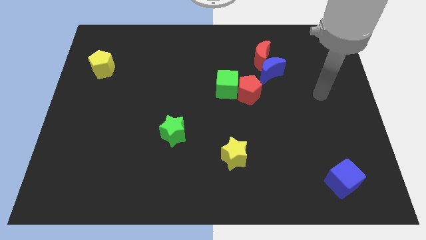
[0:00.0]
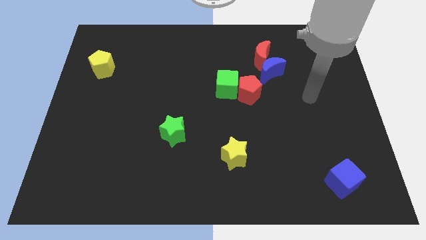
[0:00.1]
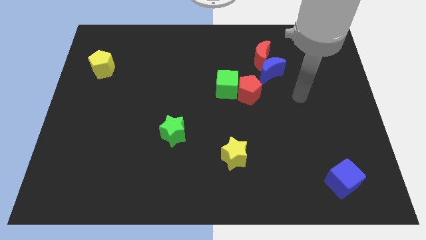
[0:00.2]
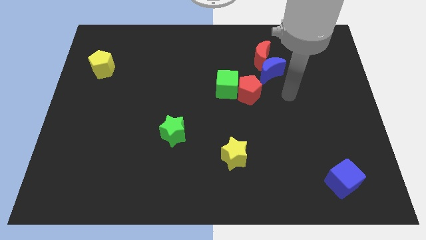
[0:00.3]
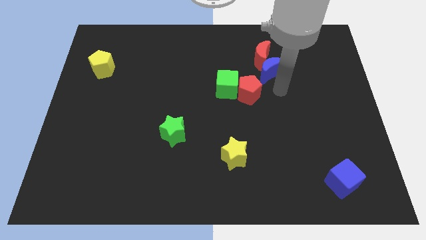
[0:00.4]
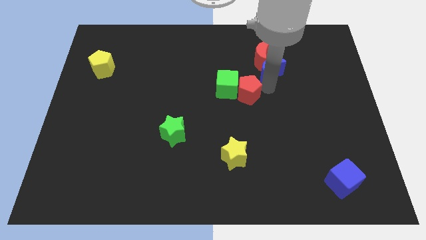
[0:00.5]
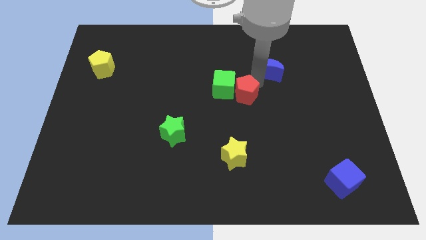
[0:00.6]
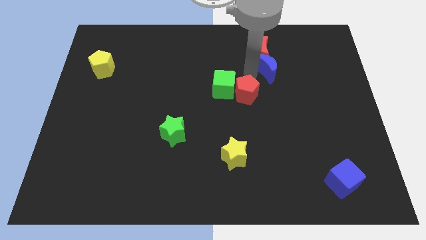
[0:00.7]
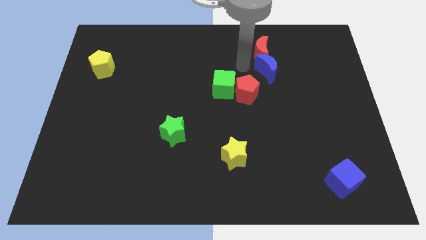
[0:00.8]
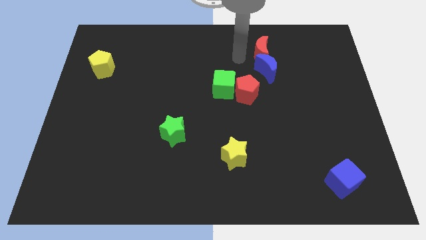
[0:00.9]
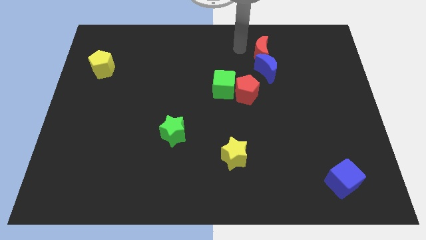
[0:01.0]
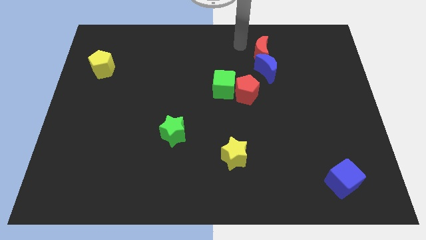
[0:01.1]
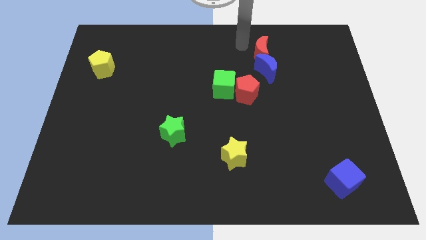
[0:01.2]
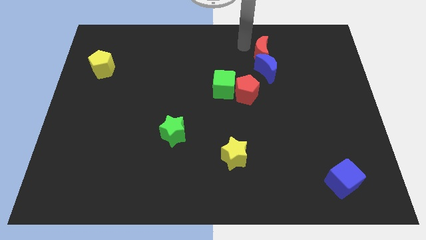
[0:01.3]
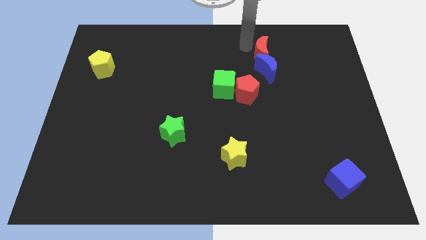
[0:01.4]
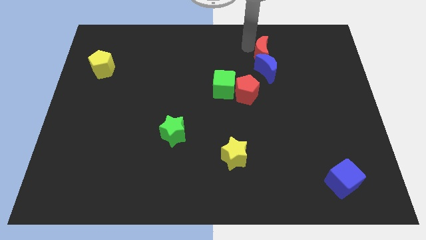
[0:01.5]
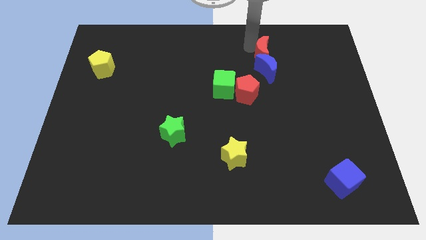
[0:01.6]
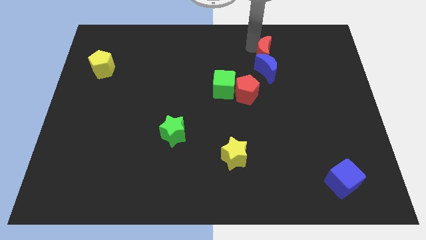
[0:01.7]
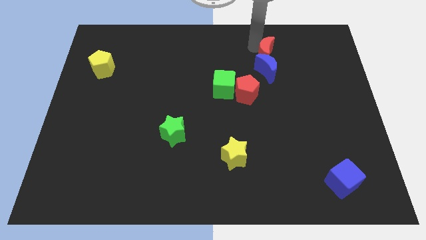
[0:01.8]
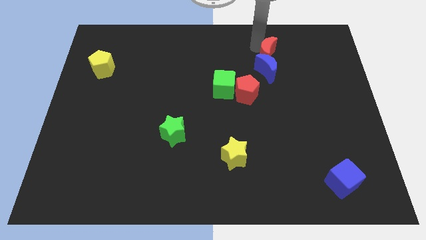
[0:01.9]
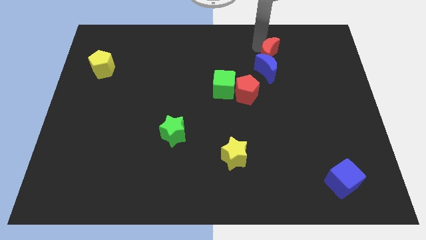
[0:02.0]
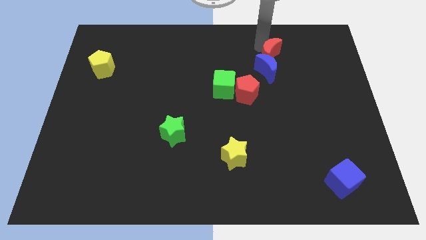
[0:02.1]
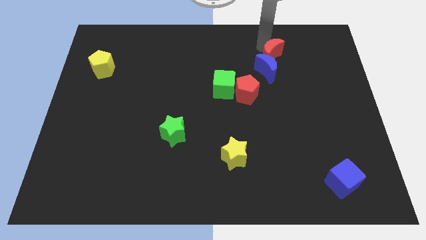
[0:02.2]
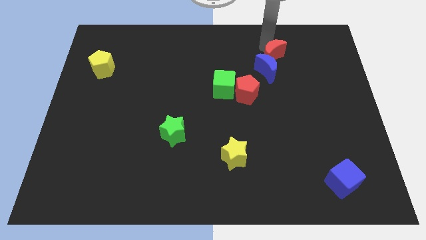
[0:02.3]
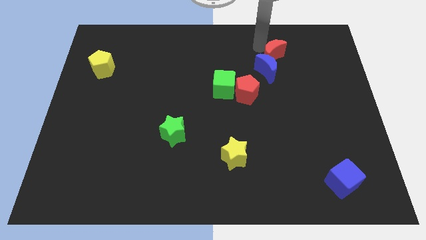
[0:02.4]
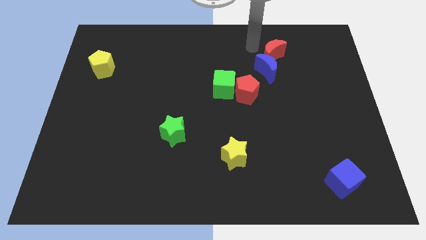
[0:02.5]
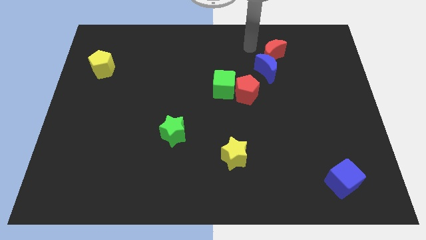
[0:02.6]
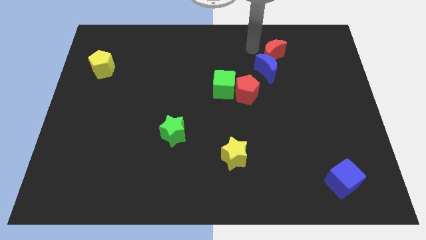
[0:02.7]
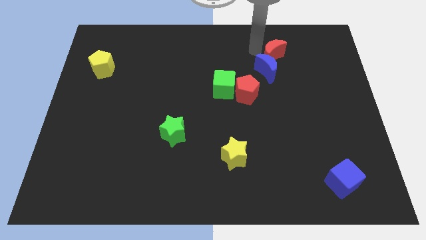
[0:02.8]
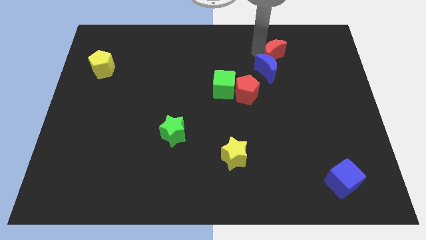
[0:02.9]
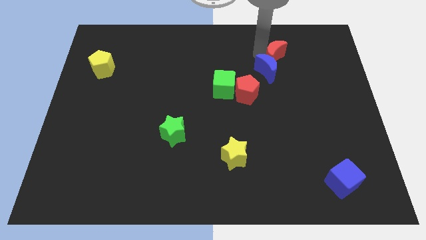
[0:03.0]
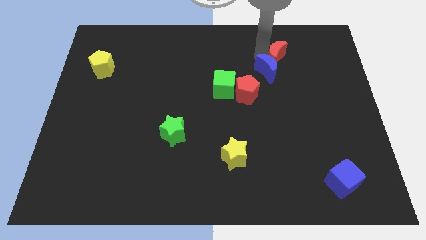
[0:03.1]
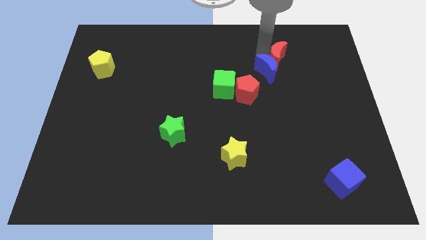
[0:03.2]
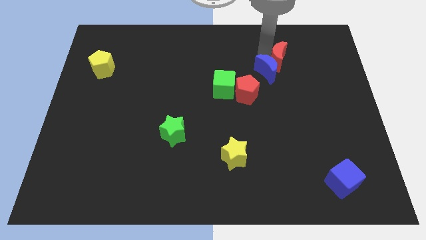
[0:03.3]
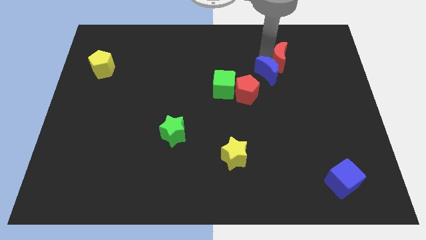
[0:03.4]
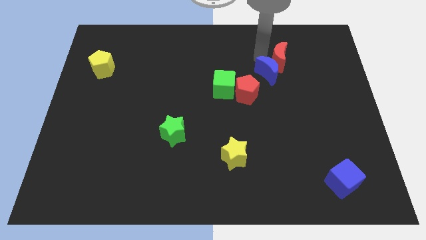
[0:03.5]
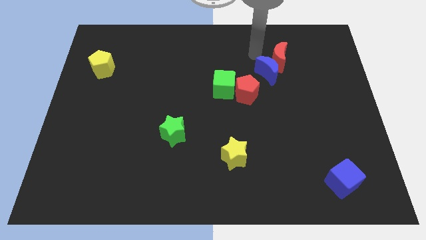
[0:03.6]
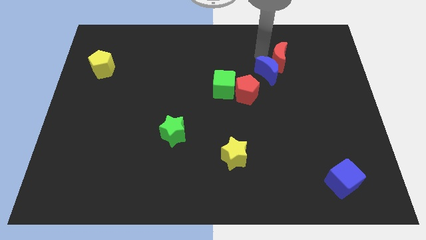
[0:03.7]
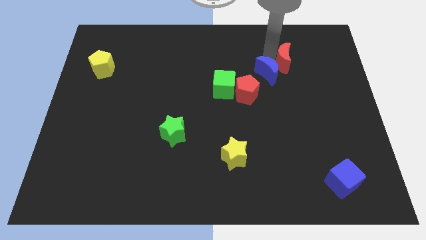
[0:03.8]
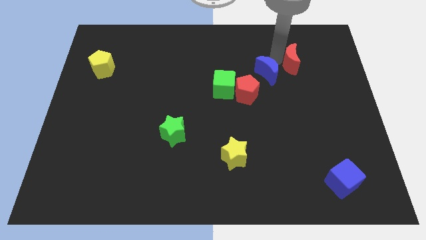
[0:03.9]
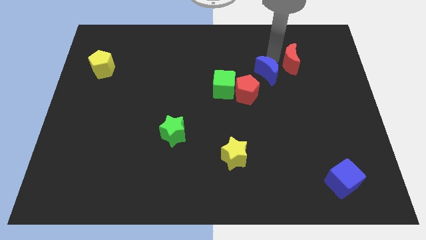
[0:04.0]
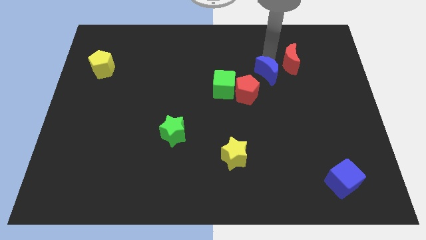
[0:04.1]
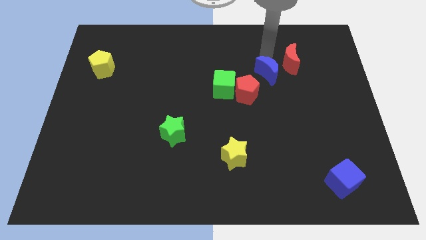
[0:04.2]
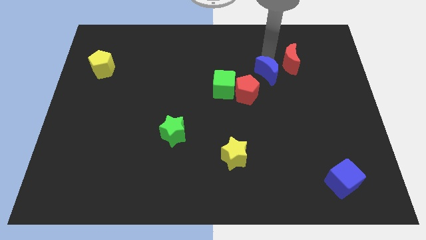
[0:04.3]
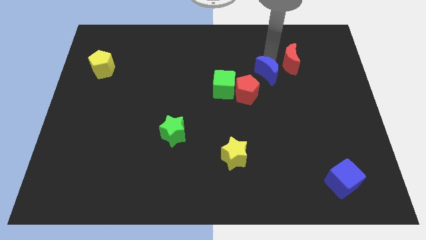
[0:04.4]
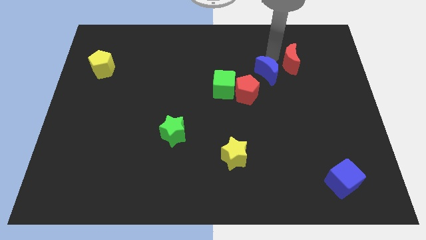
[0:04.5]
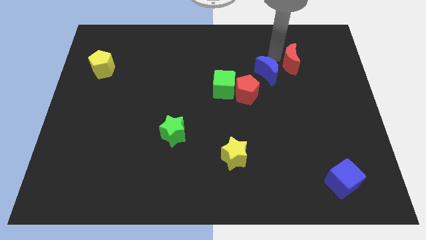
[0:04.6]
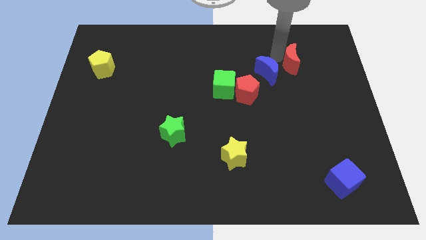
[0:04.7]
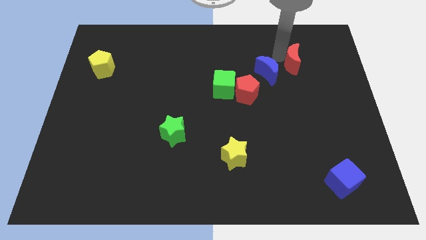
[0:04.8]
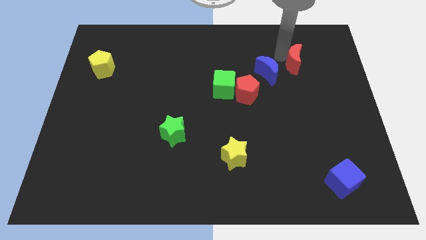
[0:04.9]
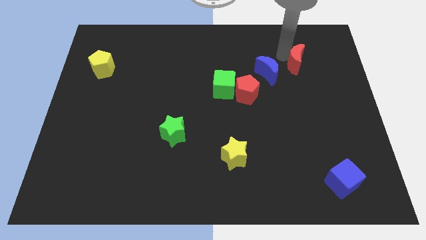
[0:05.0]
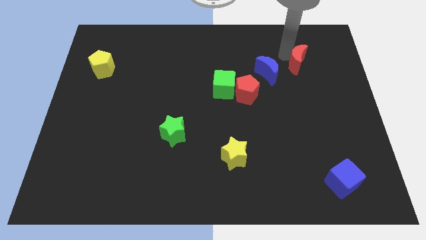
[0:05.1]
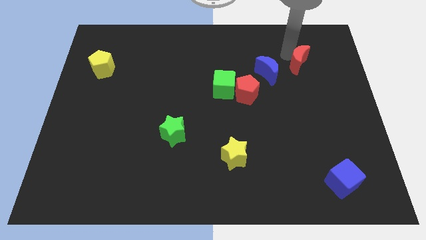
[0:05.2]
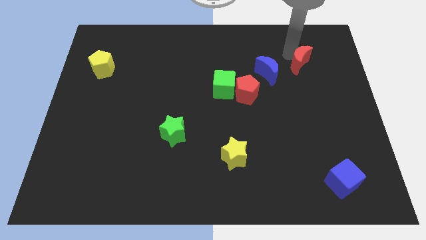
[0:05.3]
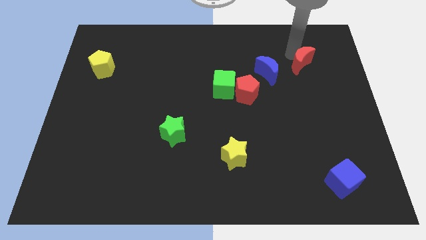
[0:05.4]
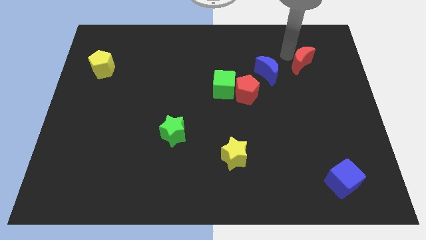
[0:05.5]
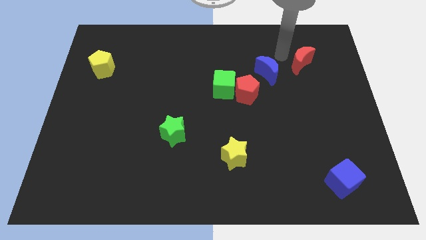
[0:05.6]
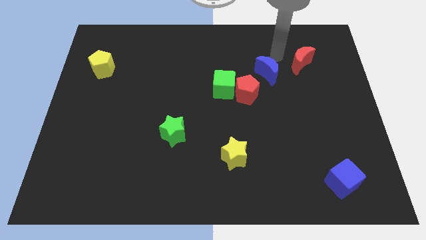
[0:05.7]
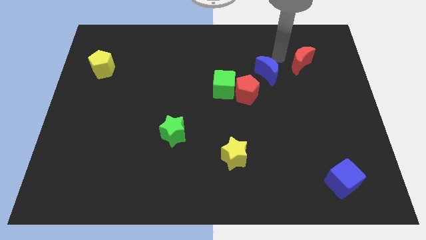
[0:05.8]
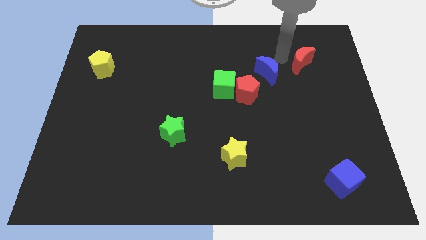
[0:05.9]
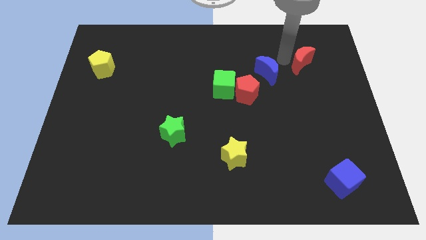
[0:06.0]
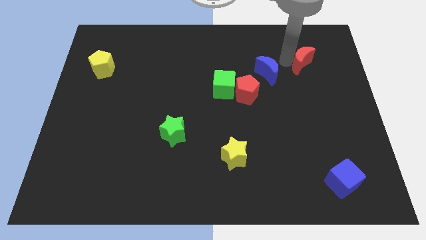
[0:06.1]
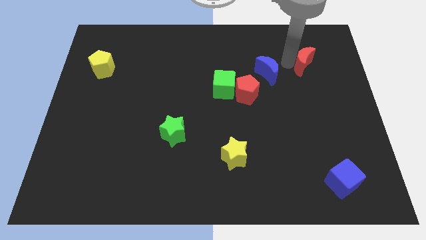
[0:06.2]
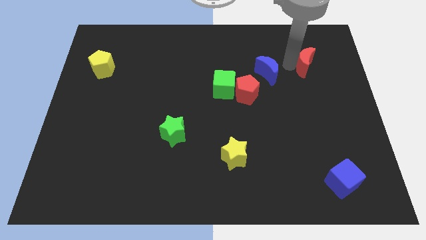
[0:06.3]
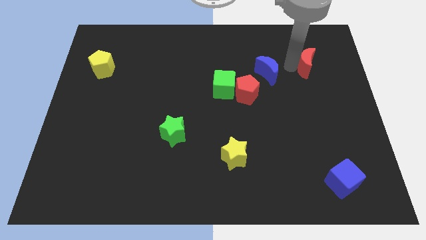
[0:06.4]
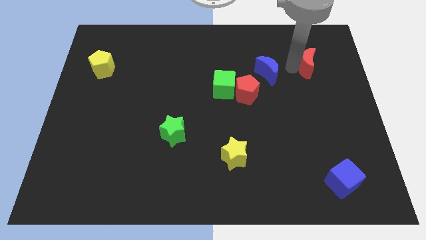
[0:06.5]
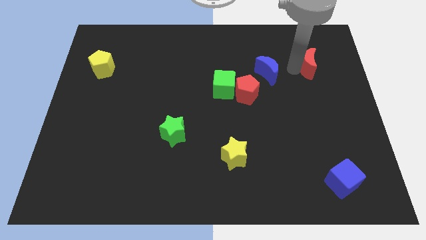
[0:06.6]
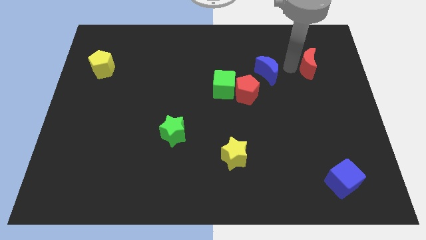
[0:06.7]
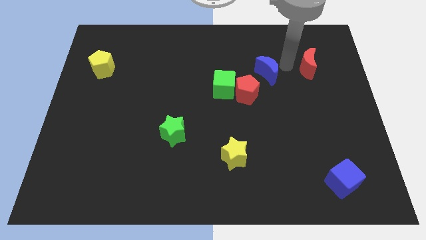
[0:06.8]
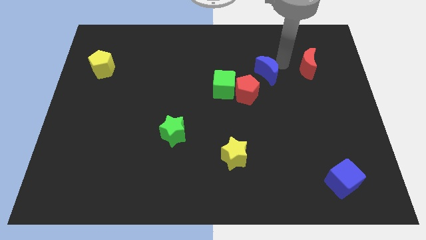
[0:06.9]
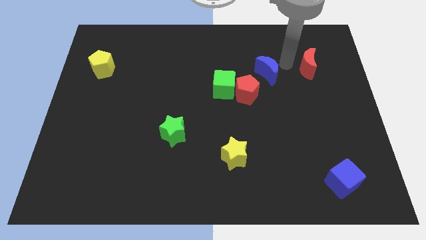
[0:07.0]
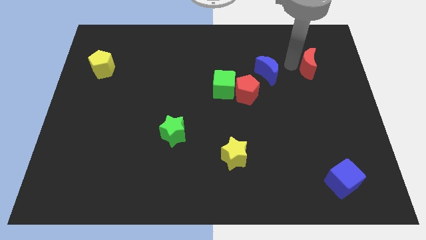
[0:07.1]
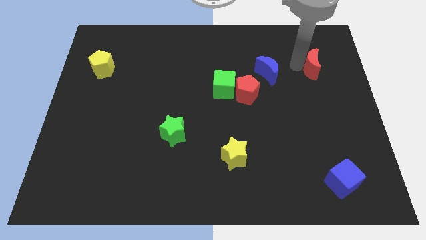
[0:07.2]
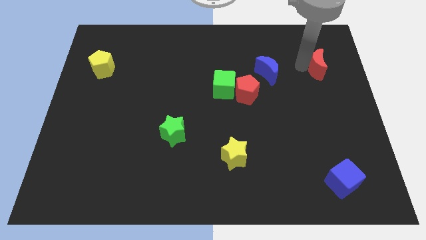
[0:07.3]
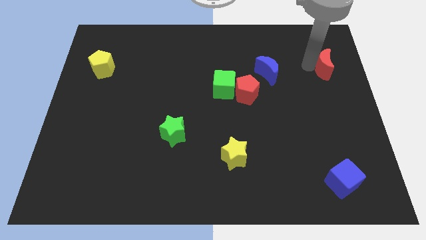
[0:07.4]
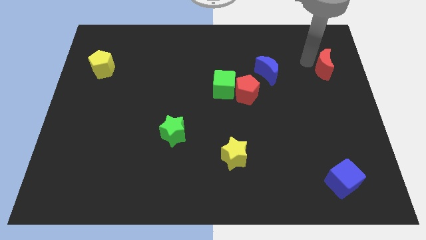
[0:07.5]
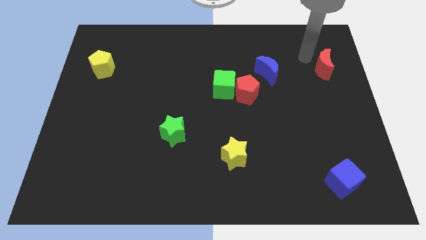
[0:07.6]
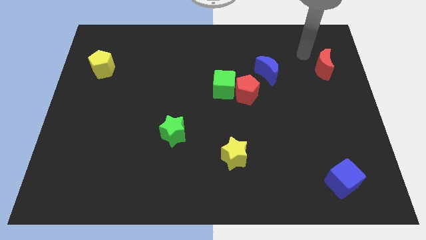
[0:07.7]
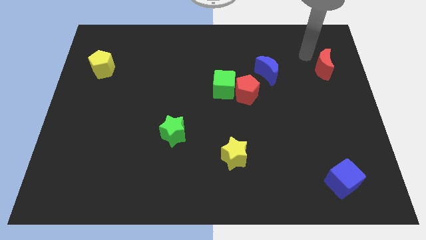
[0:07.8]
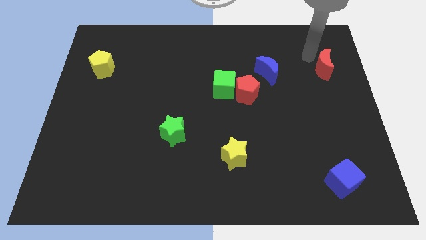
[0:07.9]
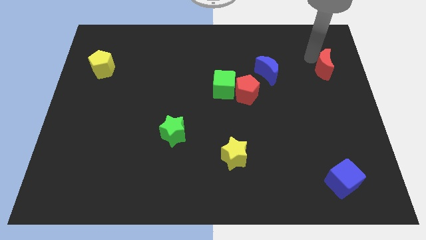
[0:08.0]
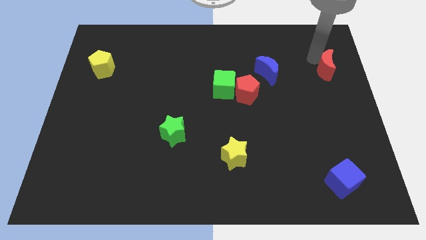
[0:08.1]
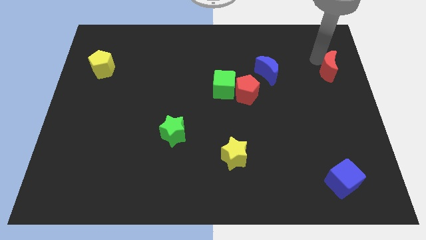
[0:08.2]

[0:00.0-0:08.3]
slide the red moon to the right side
